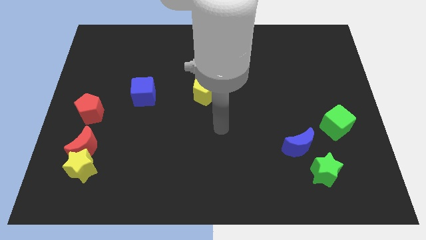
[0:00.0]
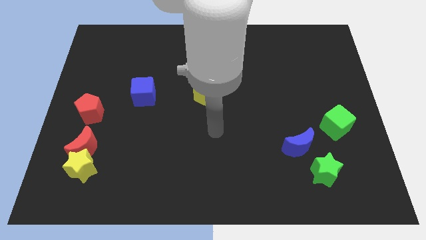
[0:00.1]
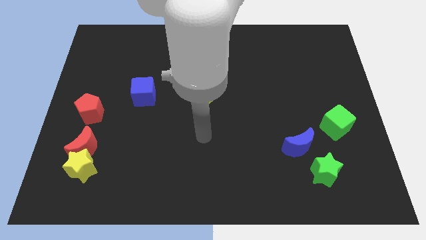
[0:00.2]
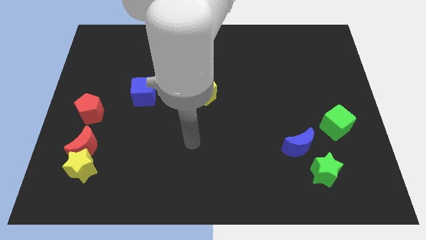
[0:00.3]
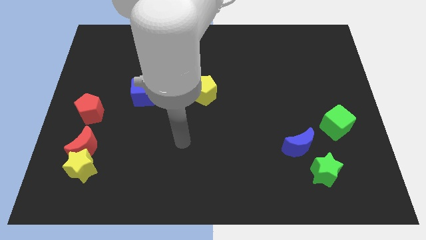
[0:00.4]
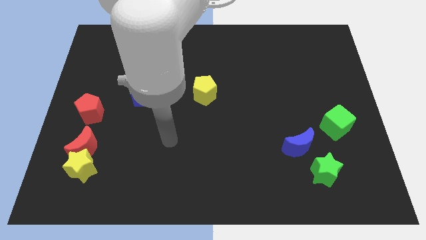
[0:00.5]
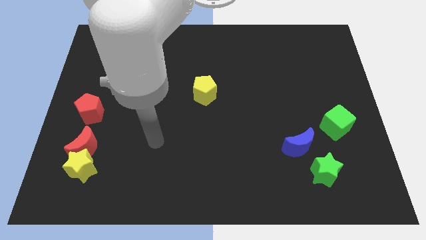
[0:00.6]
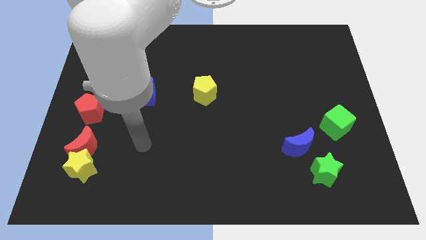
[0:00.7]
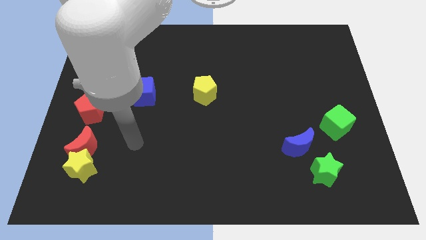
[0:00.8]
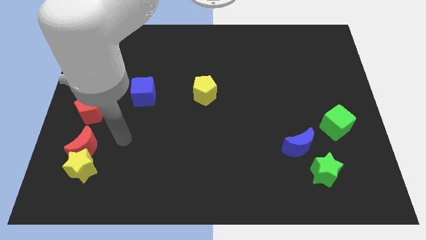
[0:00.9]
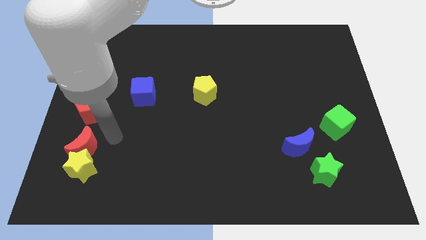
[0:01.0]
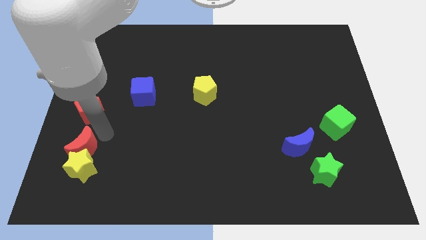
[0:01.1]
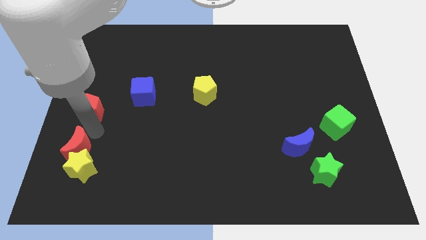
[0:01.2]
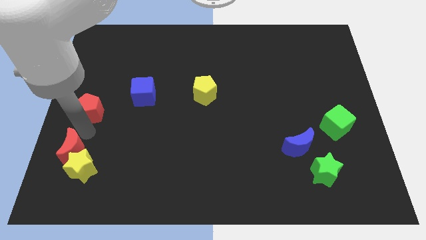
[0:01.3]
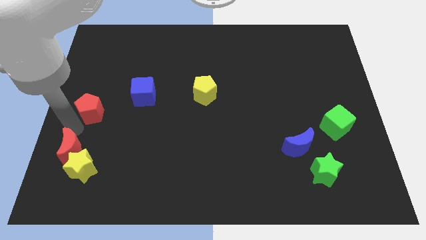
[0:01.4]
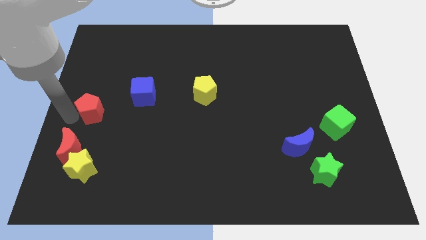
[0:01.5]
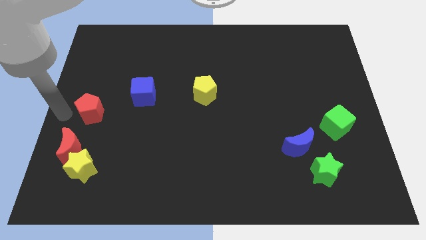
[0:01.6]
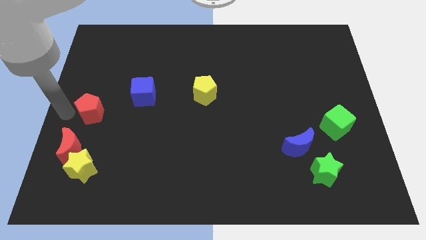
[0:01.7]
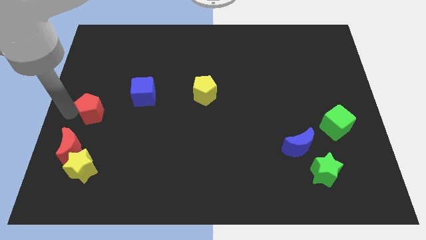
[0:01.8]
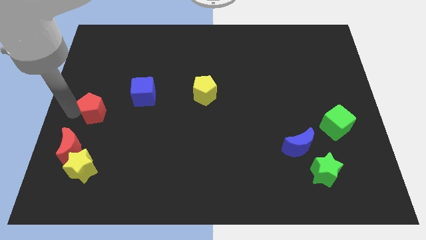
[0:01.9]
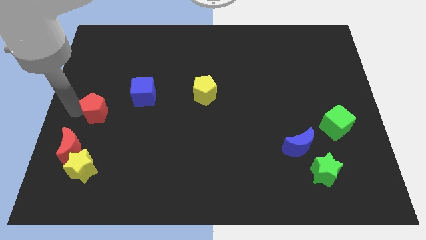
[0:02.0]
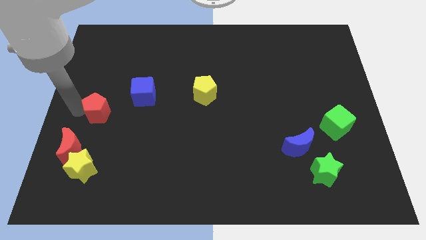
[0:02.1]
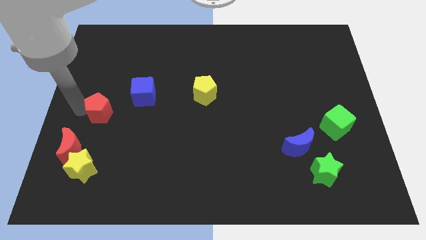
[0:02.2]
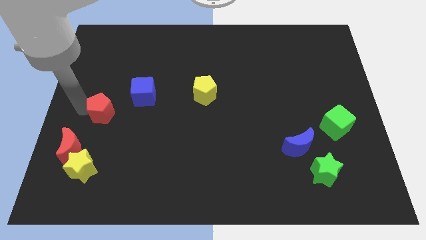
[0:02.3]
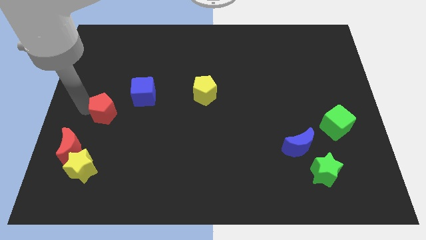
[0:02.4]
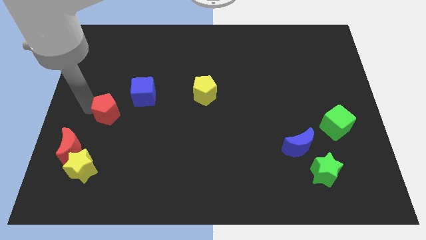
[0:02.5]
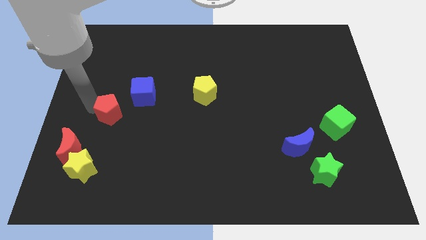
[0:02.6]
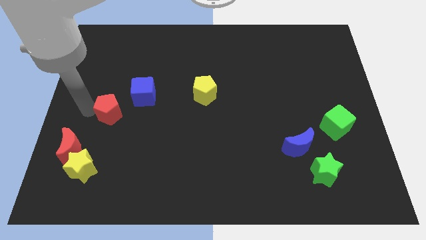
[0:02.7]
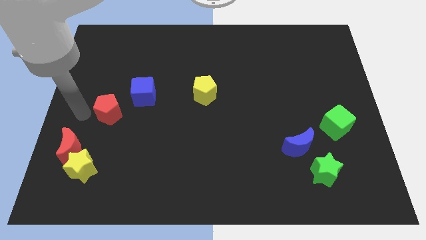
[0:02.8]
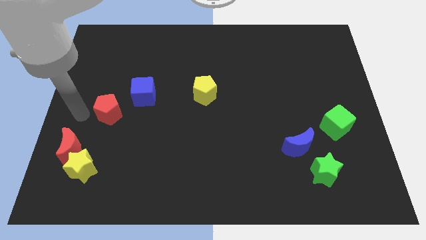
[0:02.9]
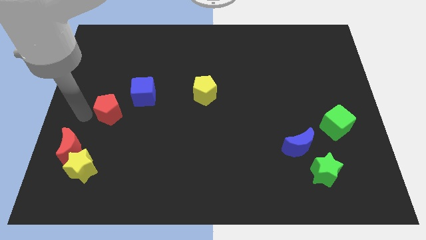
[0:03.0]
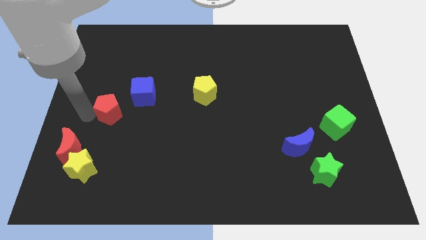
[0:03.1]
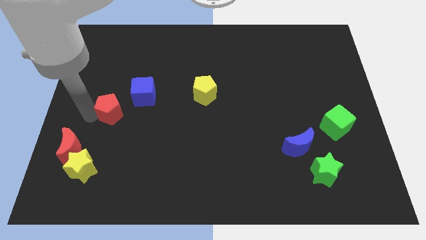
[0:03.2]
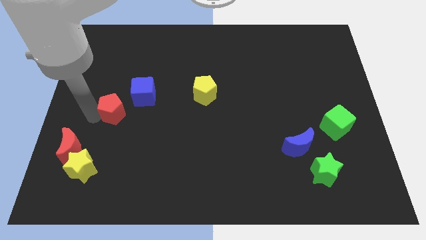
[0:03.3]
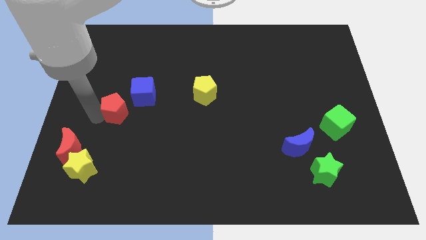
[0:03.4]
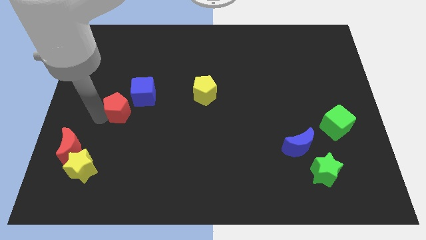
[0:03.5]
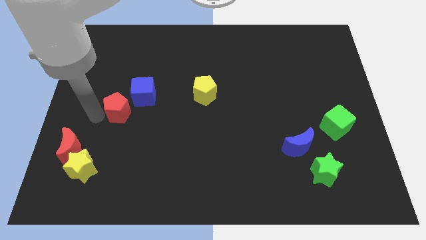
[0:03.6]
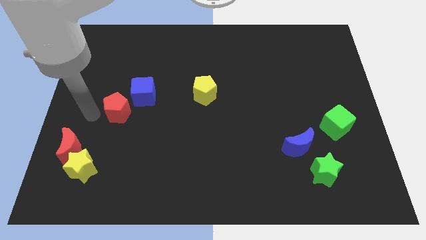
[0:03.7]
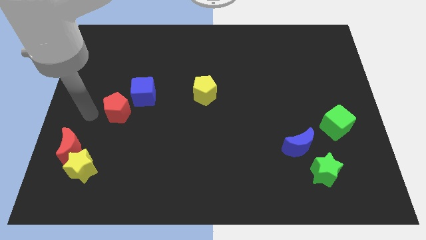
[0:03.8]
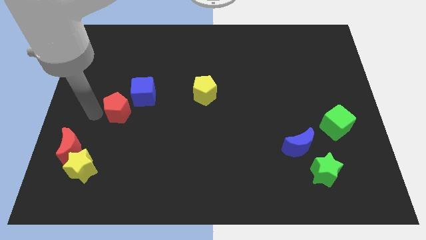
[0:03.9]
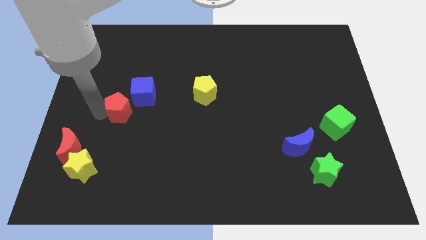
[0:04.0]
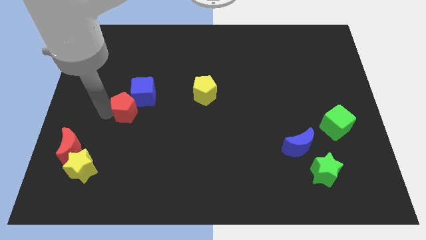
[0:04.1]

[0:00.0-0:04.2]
slide the red pentagon a little right

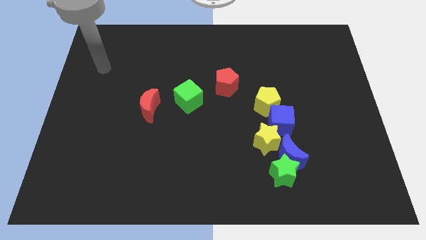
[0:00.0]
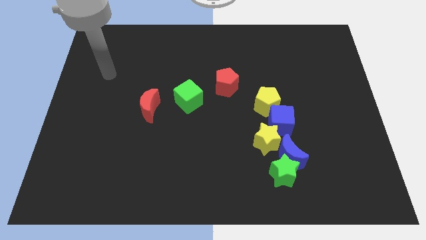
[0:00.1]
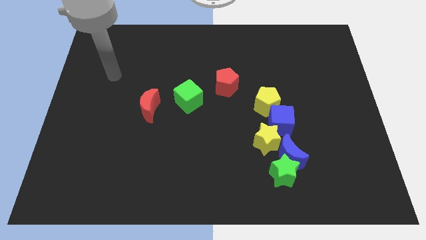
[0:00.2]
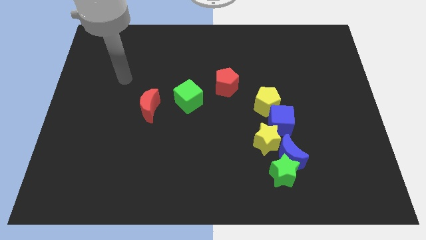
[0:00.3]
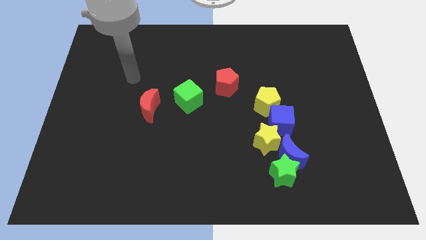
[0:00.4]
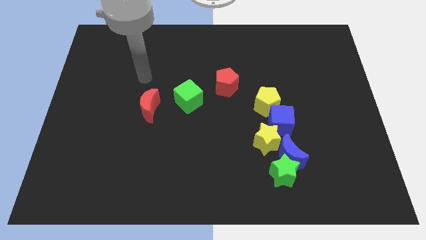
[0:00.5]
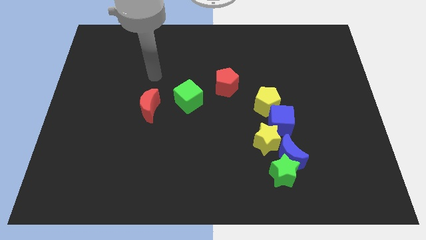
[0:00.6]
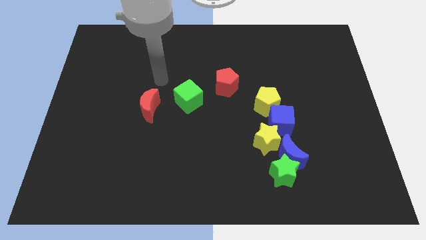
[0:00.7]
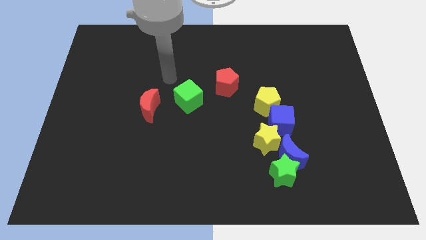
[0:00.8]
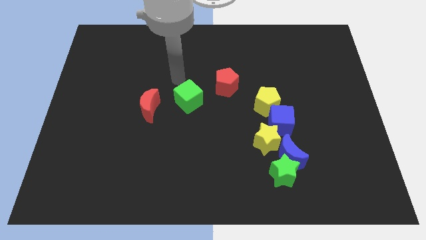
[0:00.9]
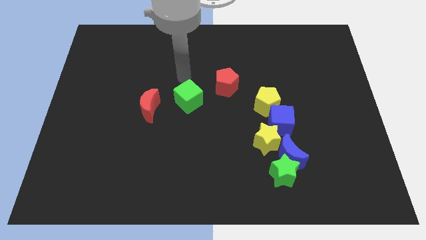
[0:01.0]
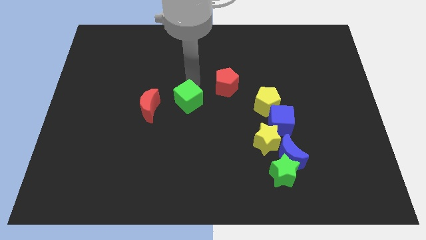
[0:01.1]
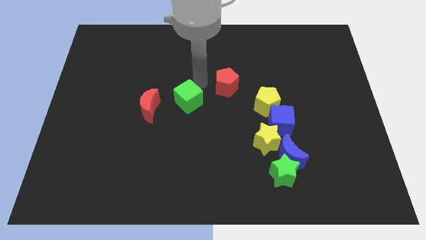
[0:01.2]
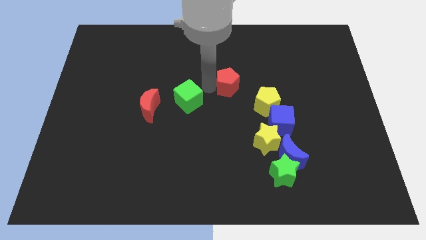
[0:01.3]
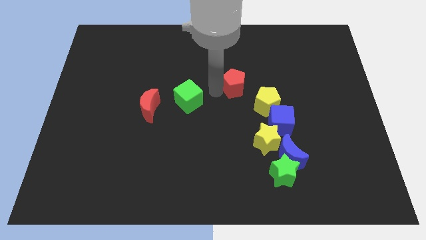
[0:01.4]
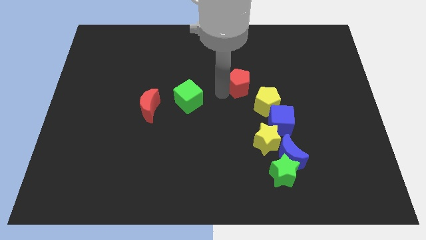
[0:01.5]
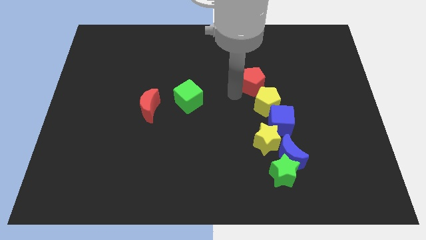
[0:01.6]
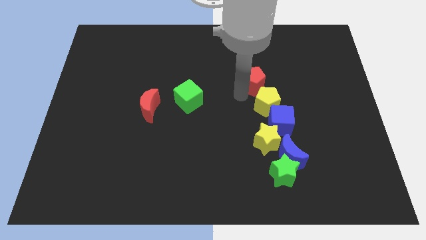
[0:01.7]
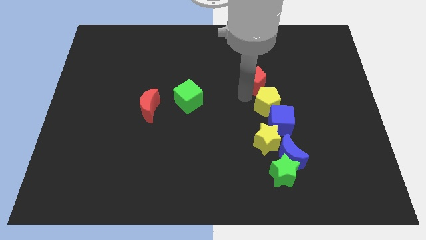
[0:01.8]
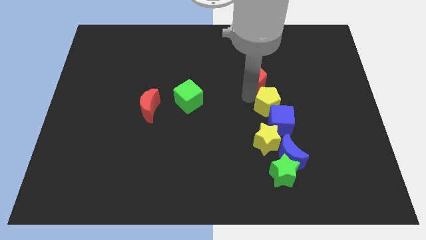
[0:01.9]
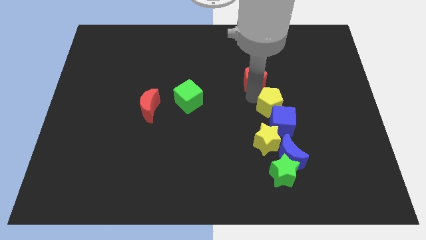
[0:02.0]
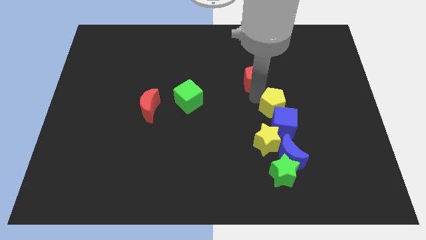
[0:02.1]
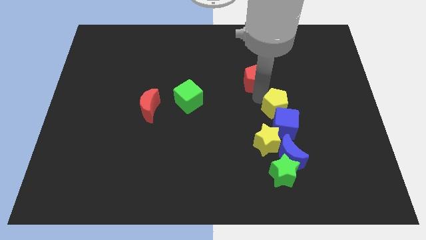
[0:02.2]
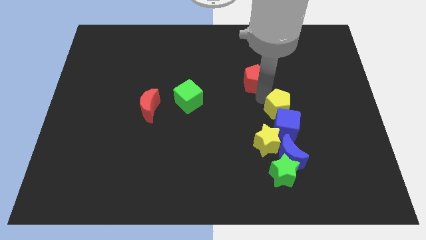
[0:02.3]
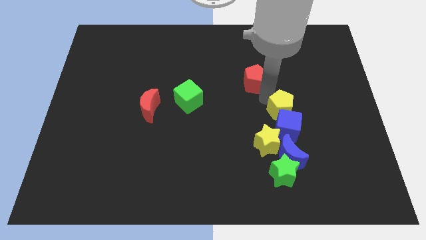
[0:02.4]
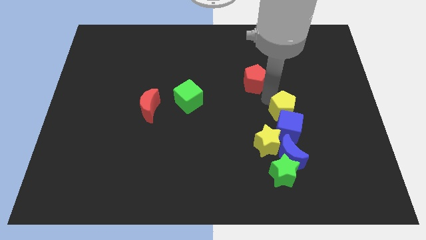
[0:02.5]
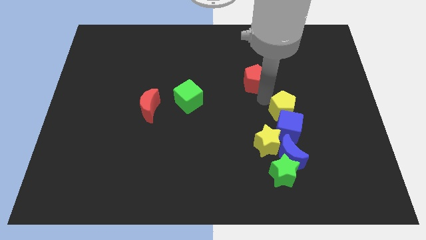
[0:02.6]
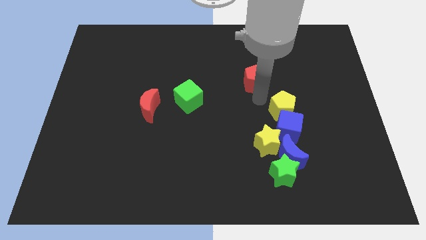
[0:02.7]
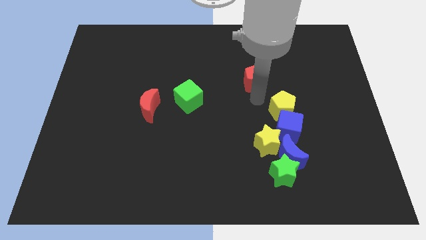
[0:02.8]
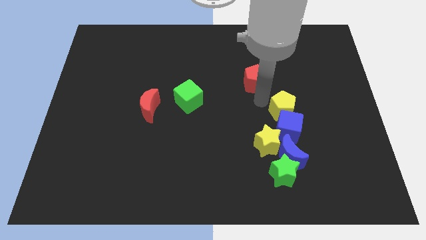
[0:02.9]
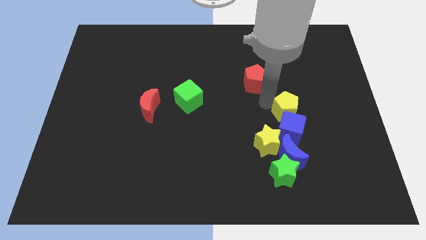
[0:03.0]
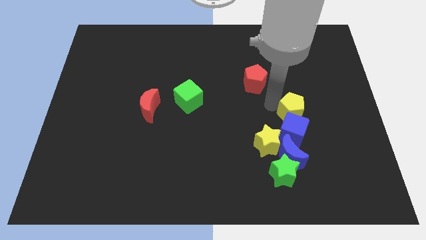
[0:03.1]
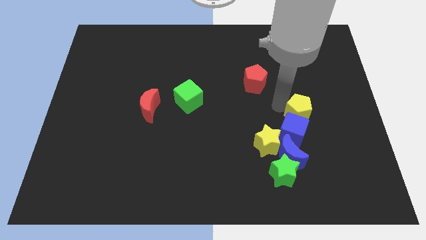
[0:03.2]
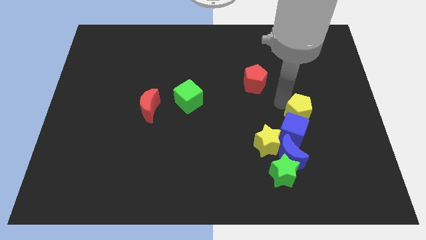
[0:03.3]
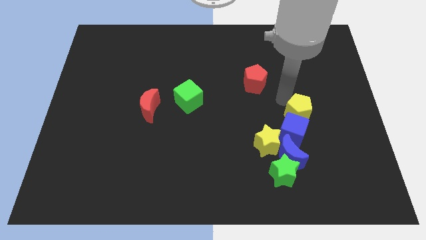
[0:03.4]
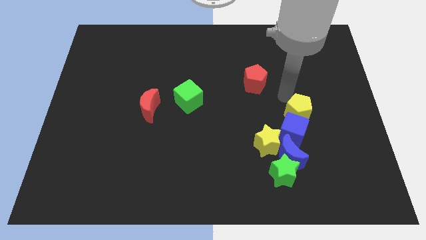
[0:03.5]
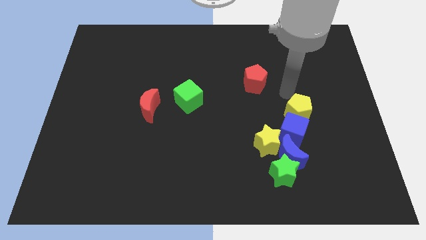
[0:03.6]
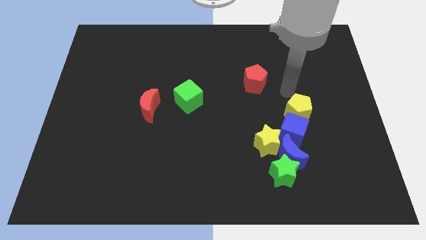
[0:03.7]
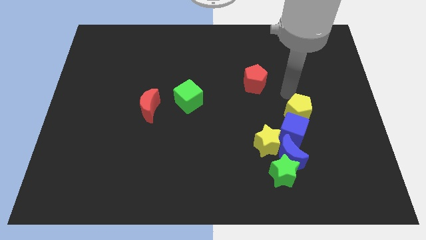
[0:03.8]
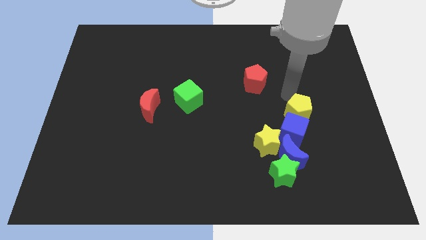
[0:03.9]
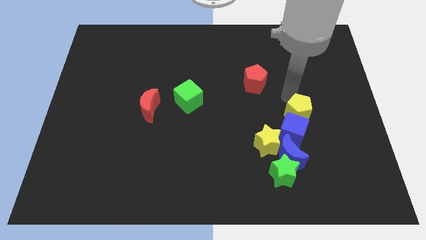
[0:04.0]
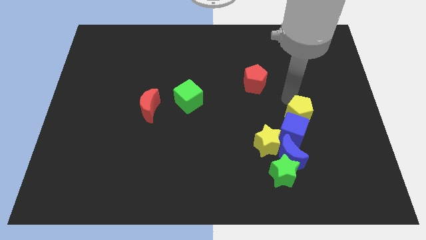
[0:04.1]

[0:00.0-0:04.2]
slide the yellow pentagon slightly diagonally down and right
